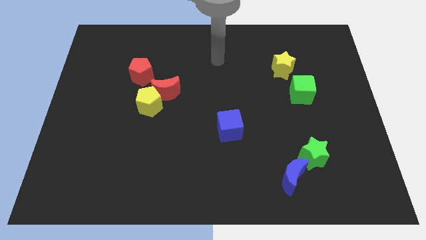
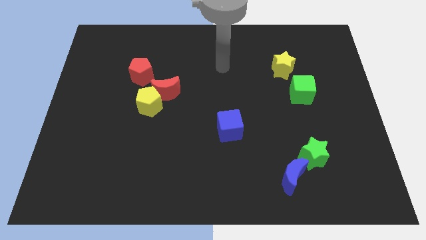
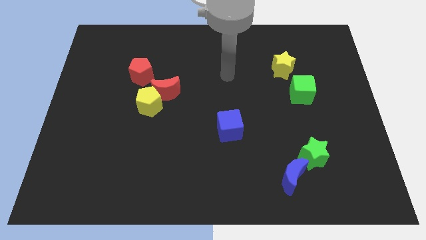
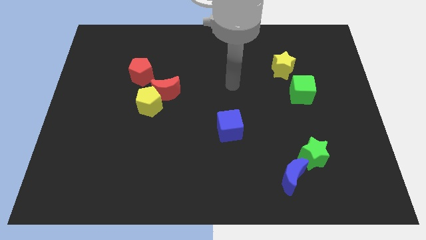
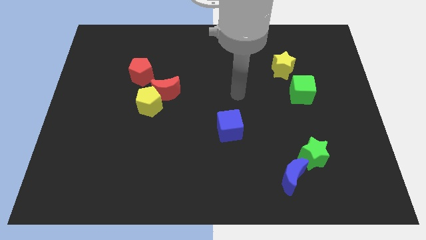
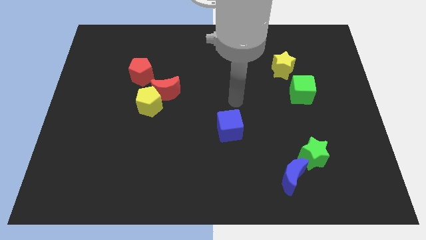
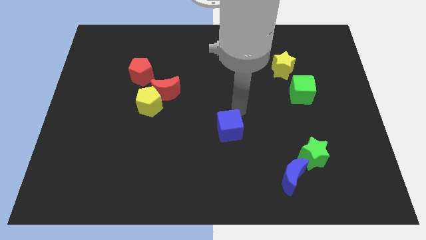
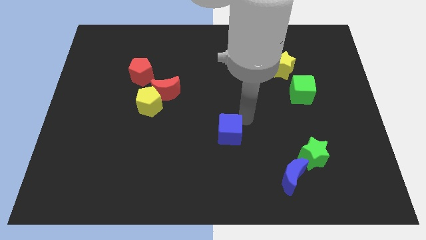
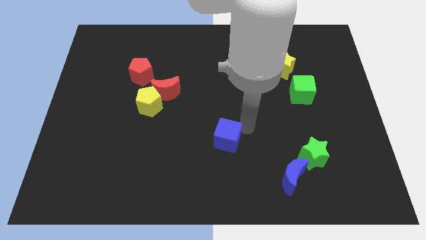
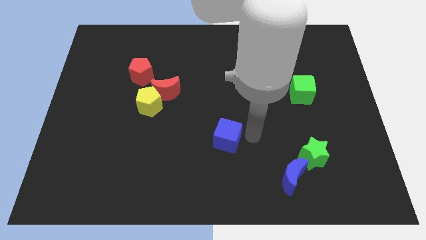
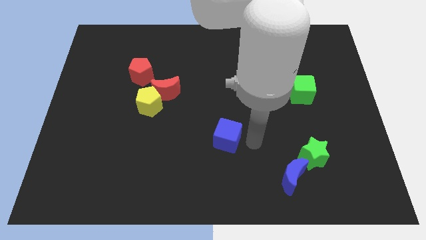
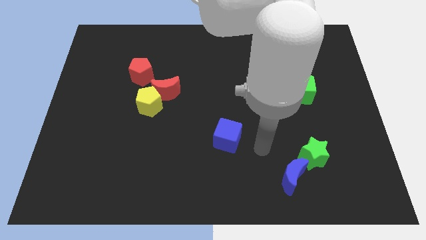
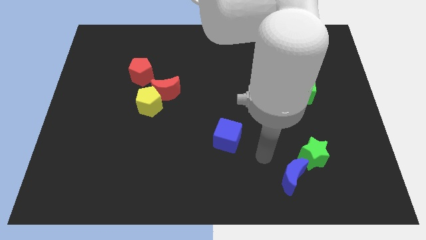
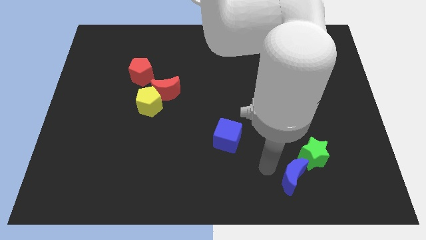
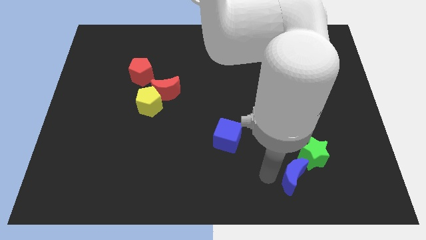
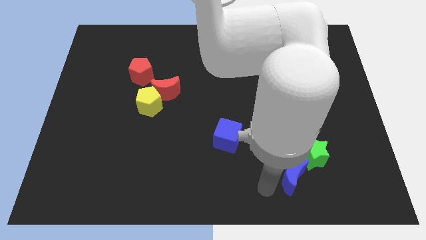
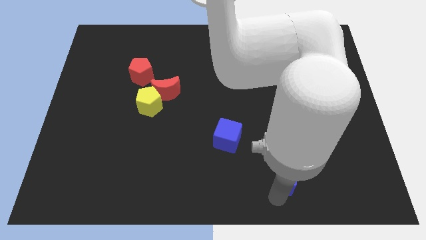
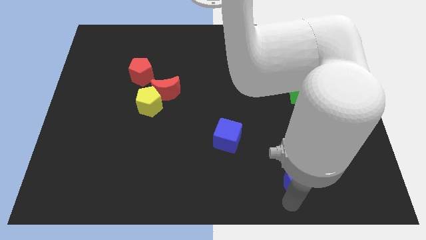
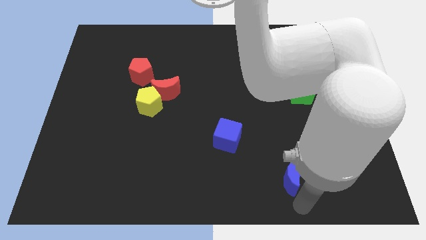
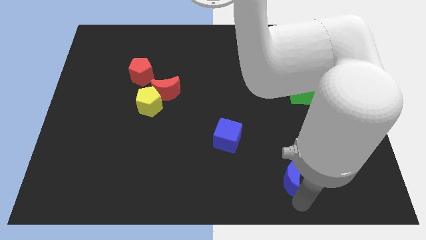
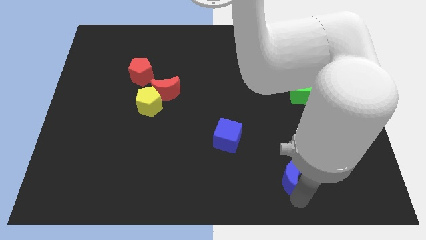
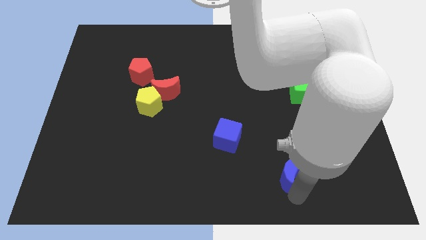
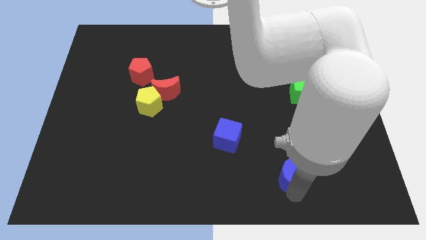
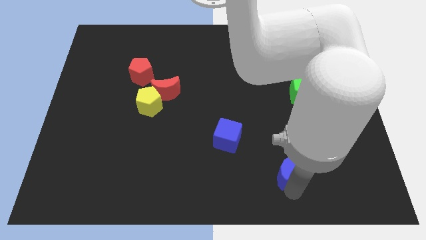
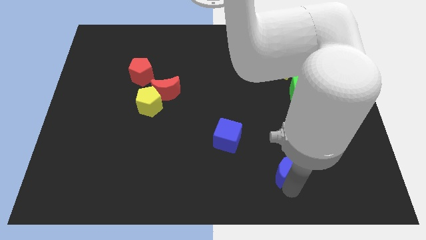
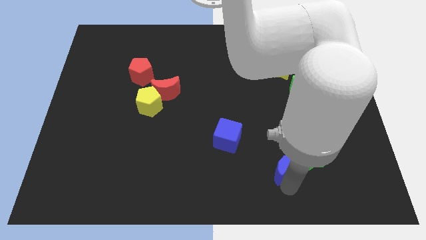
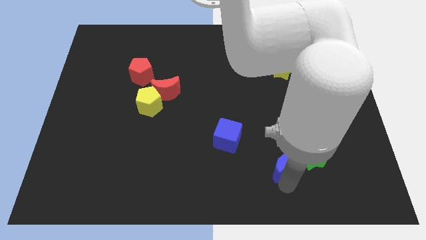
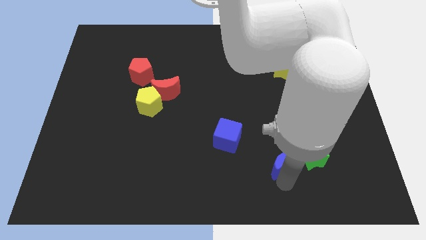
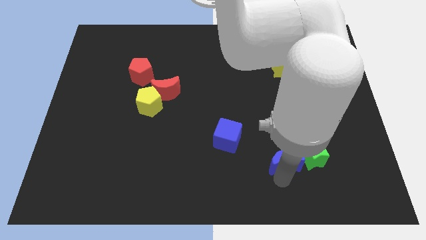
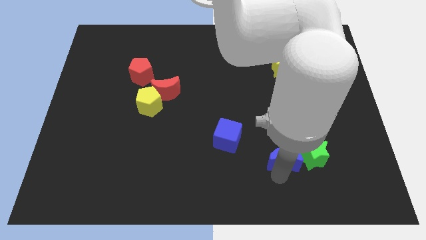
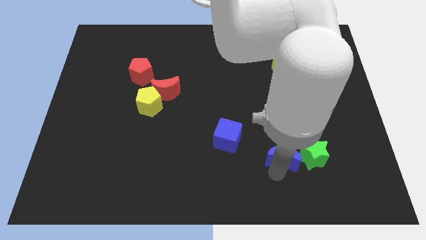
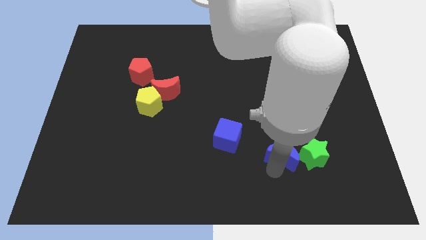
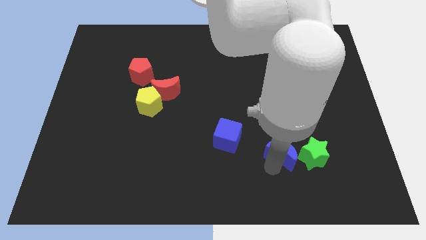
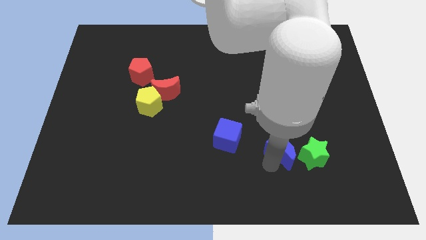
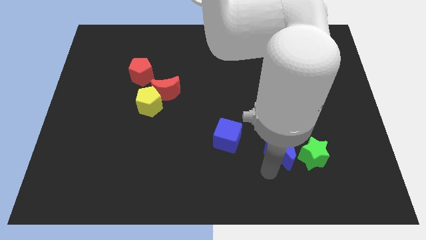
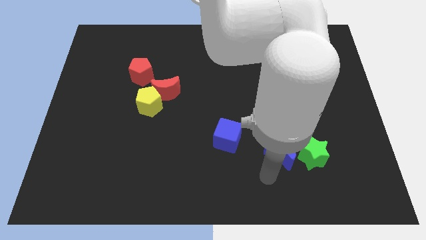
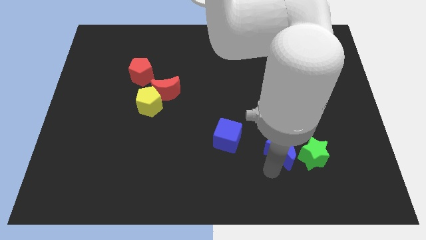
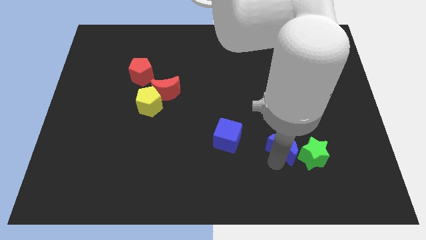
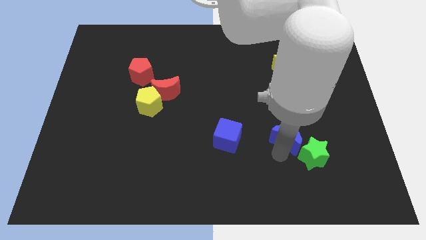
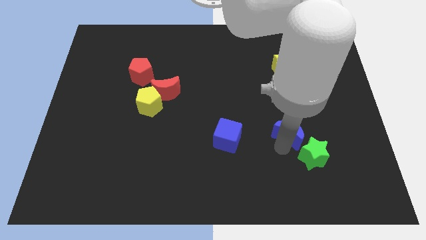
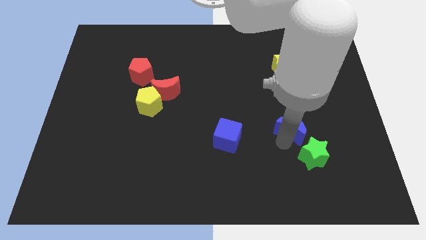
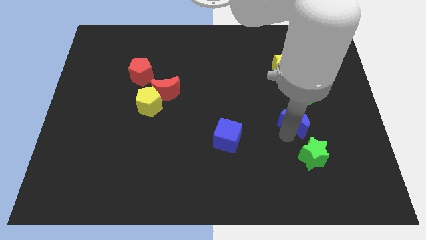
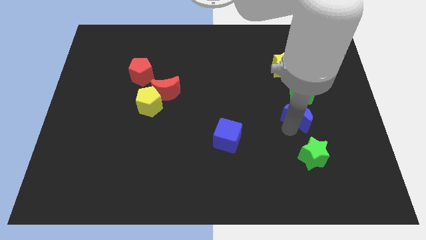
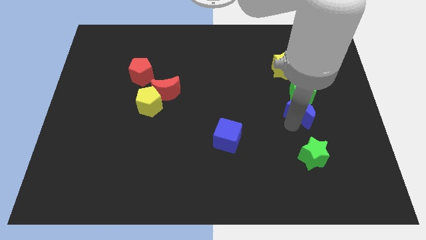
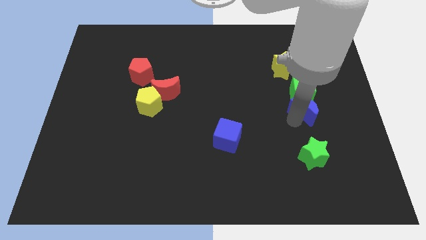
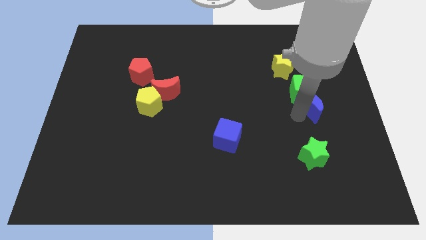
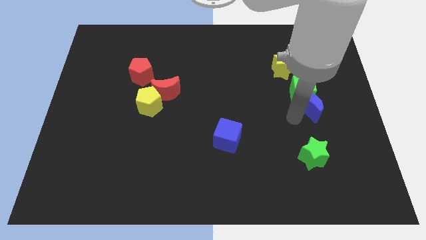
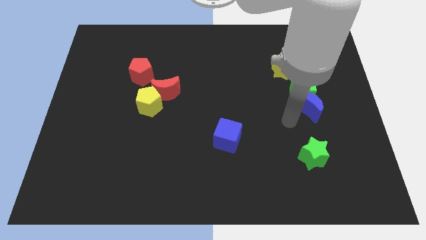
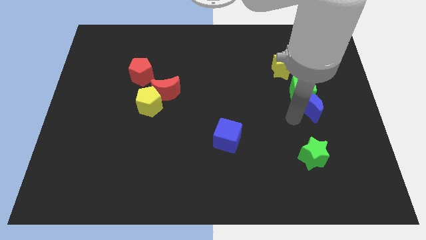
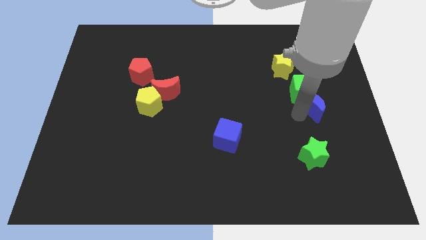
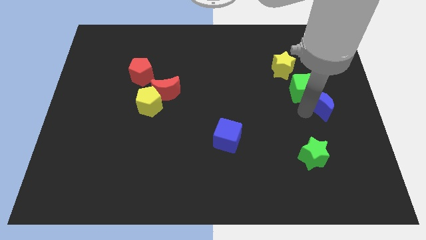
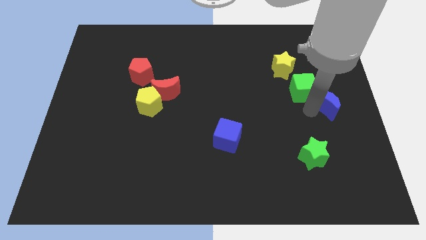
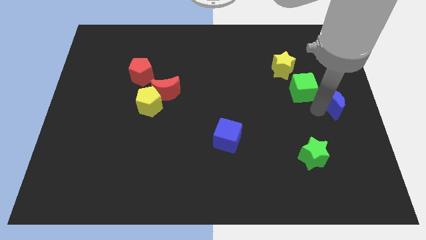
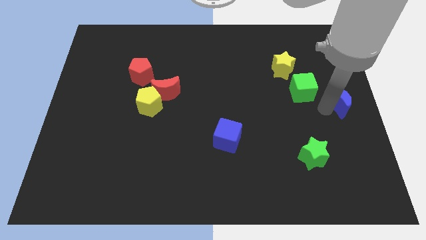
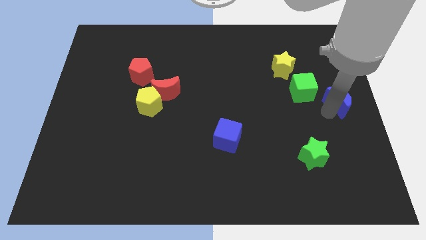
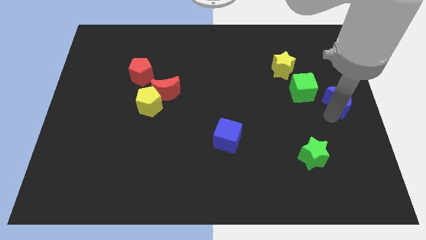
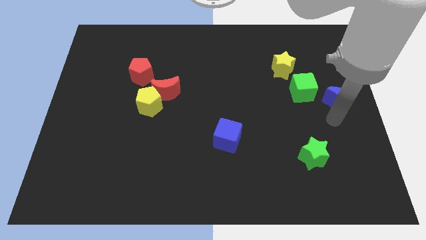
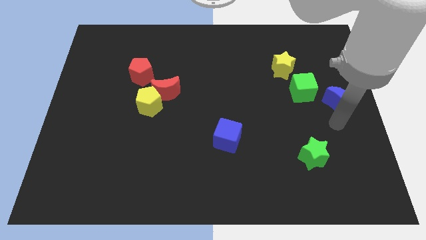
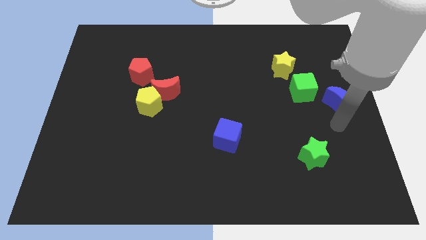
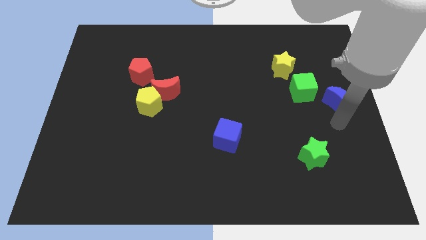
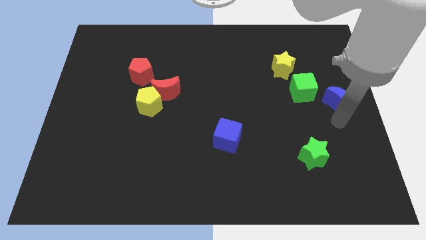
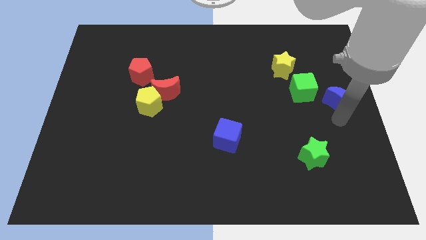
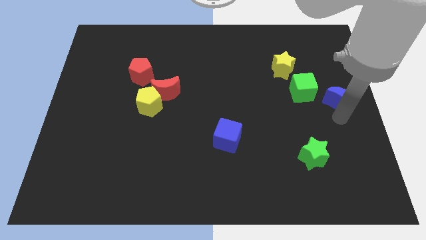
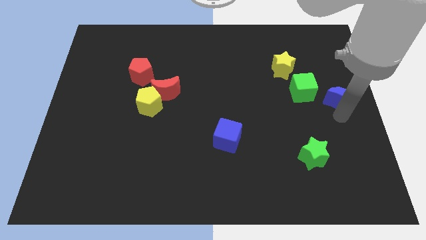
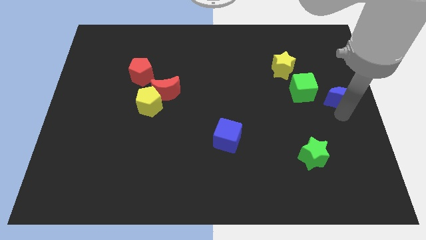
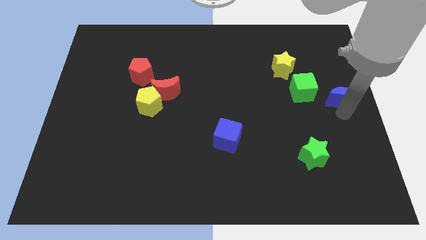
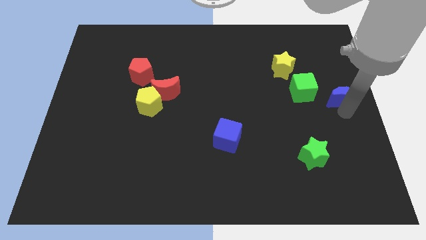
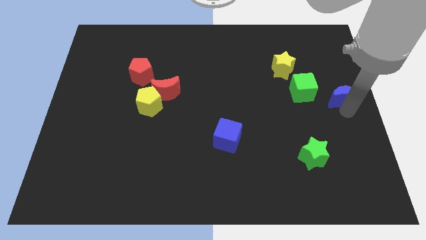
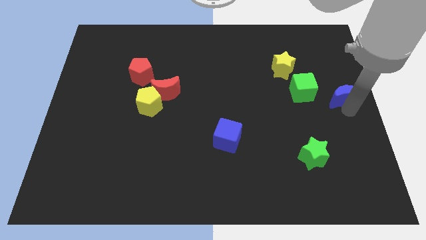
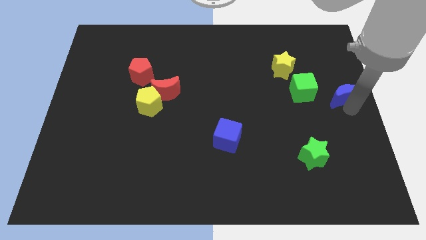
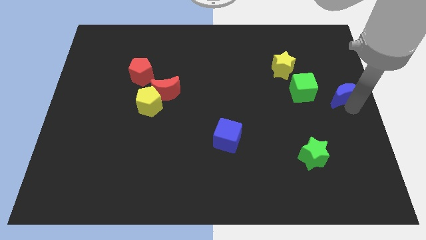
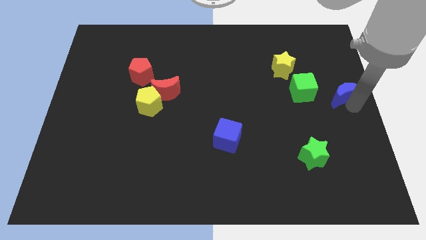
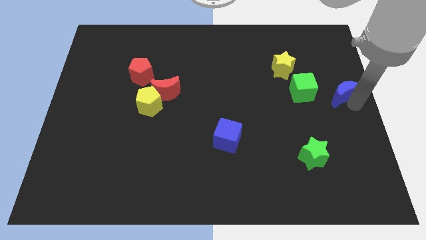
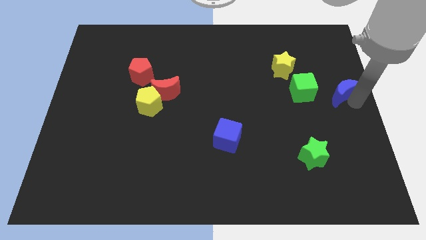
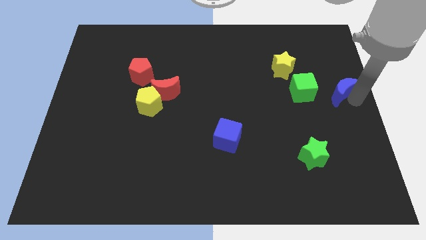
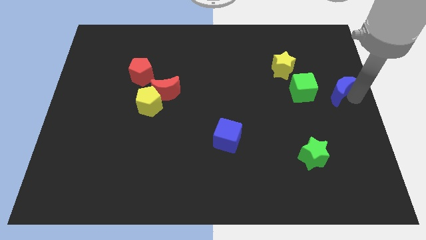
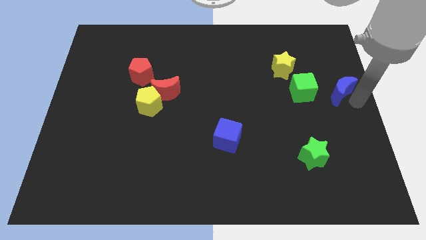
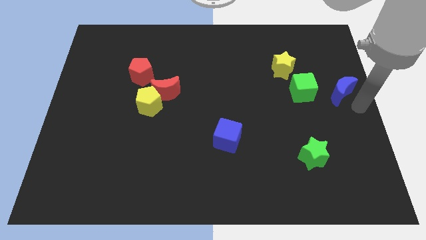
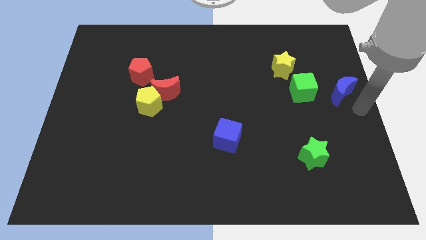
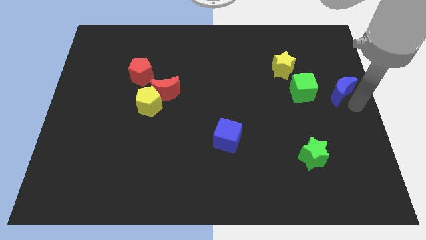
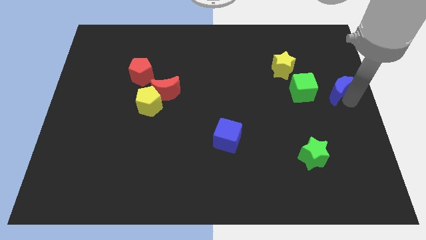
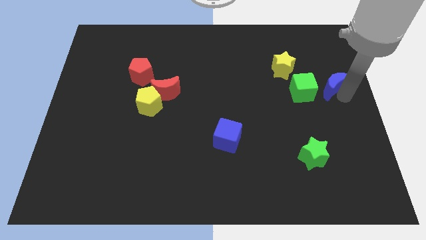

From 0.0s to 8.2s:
push the blue moon to the top right side of the green cube
